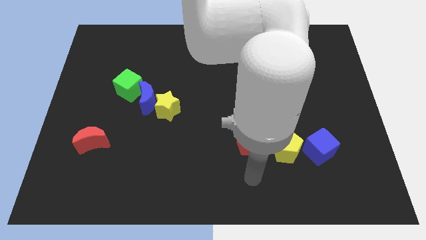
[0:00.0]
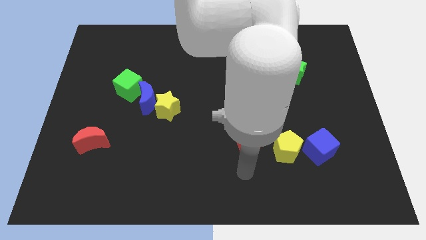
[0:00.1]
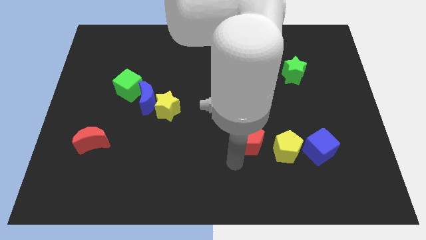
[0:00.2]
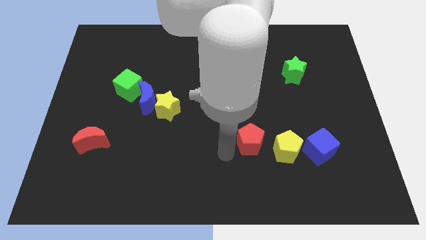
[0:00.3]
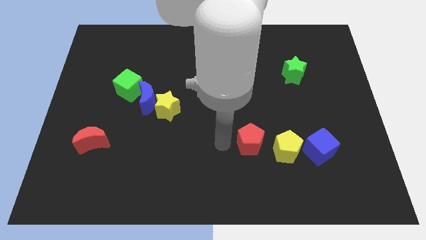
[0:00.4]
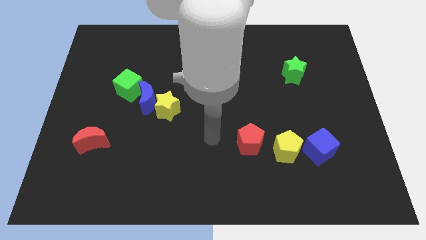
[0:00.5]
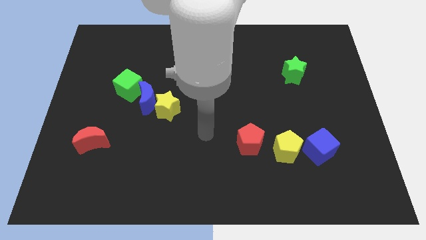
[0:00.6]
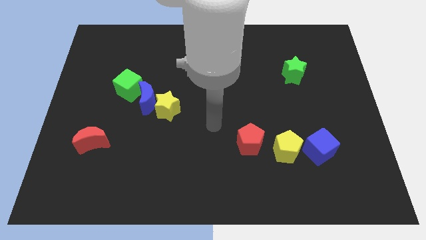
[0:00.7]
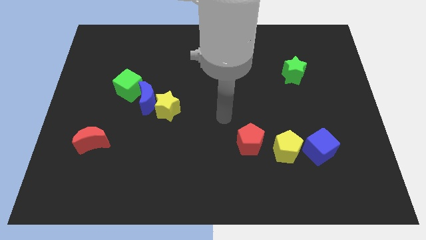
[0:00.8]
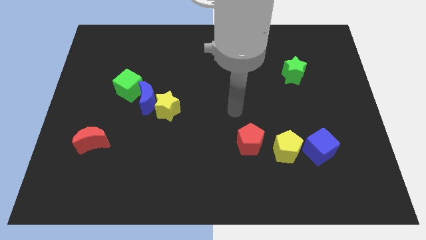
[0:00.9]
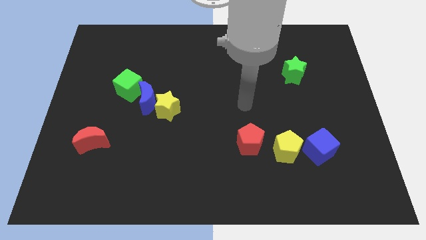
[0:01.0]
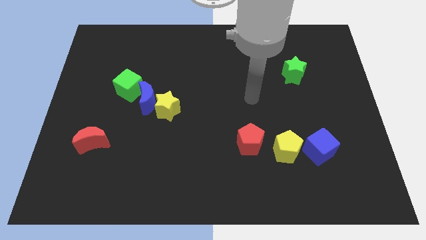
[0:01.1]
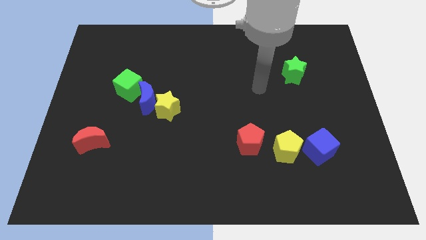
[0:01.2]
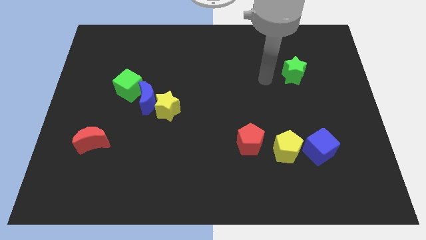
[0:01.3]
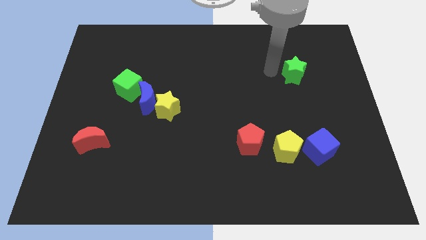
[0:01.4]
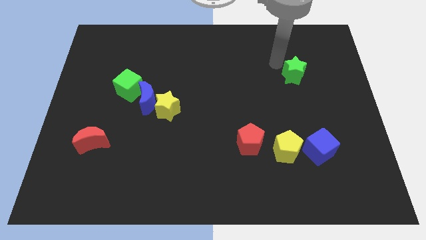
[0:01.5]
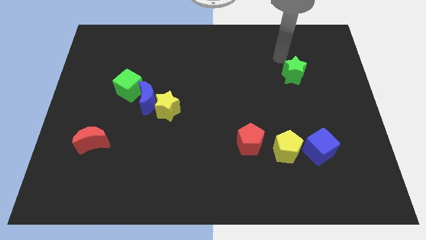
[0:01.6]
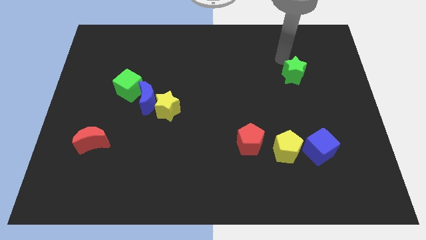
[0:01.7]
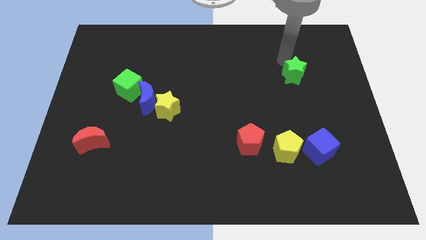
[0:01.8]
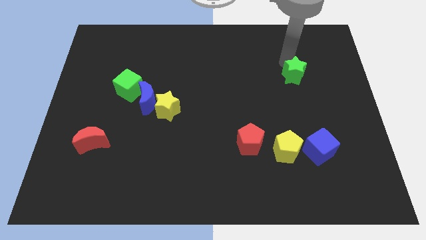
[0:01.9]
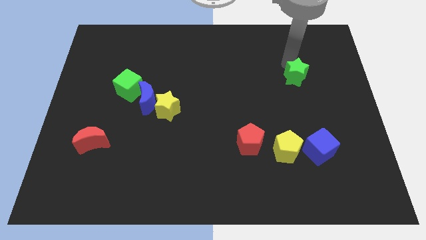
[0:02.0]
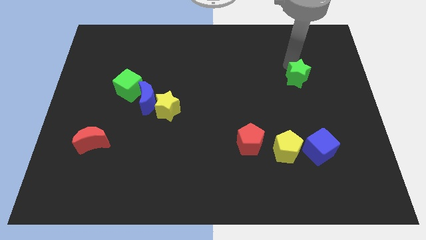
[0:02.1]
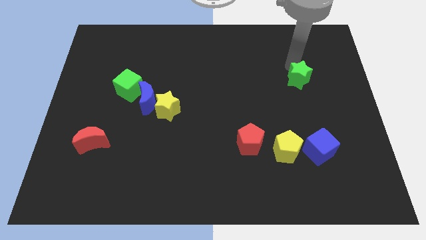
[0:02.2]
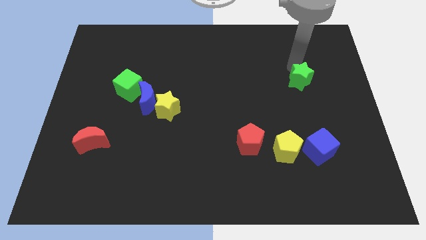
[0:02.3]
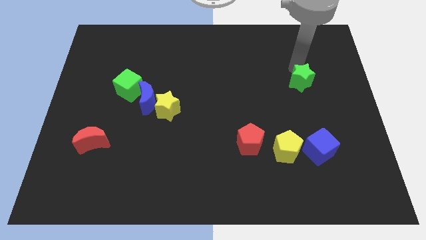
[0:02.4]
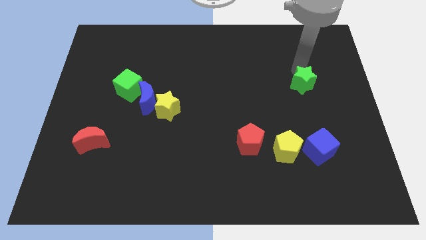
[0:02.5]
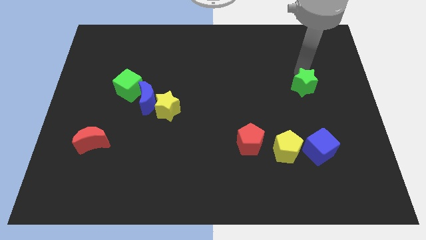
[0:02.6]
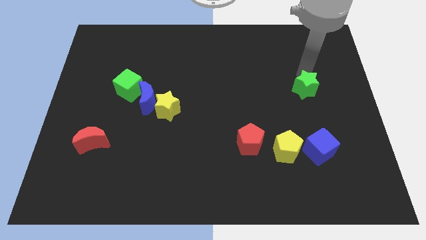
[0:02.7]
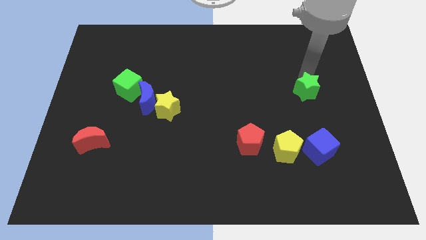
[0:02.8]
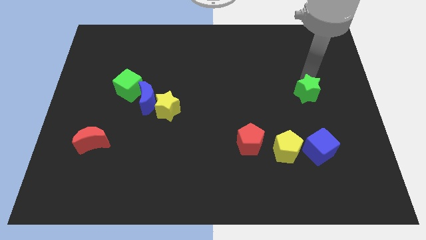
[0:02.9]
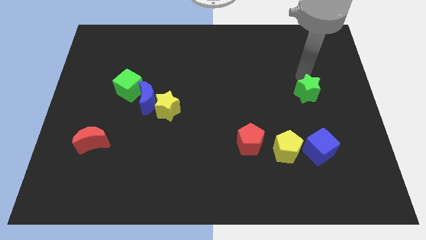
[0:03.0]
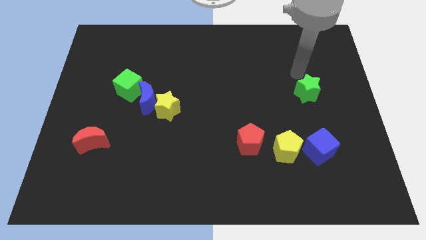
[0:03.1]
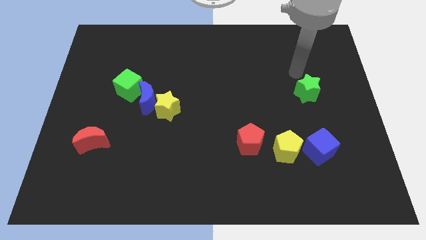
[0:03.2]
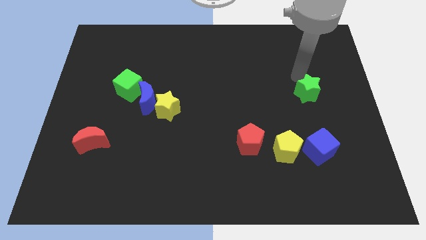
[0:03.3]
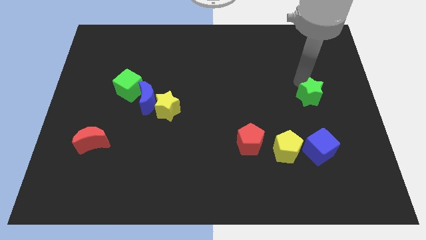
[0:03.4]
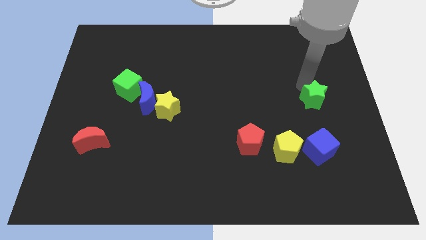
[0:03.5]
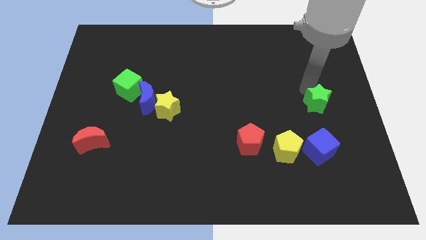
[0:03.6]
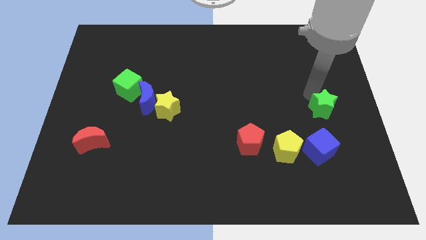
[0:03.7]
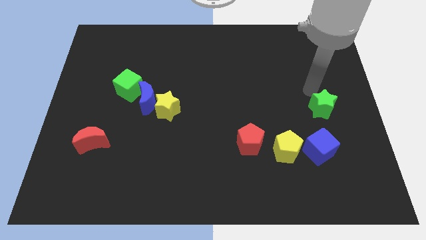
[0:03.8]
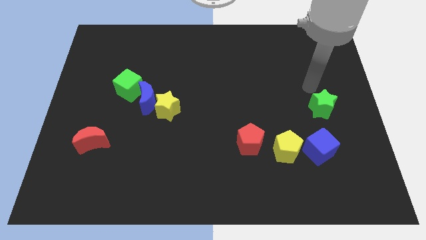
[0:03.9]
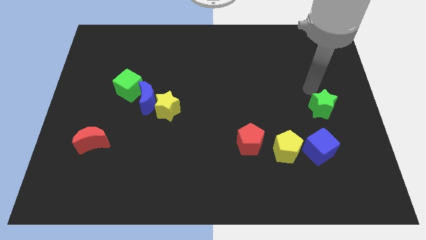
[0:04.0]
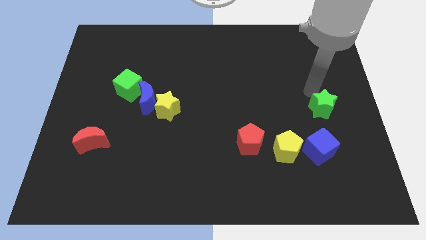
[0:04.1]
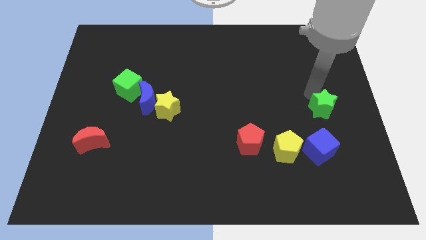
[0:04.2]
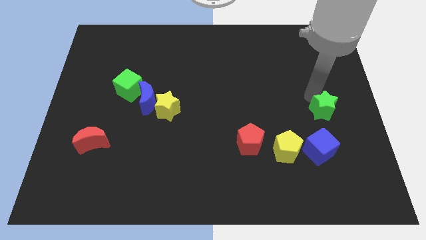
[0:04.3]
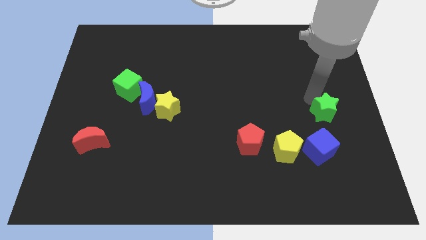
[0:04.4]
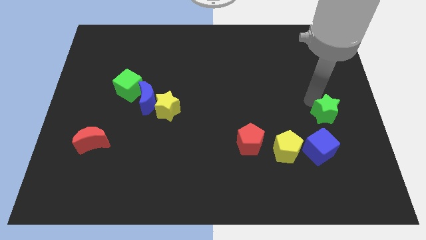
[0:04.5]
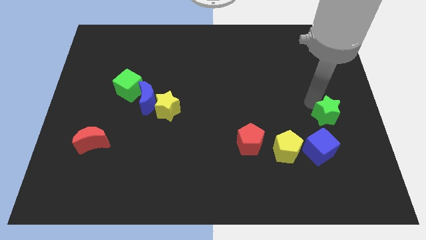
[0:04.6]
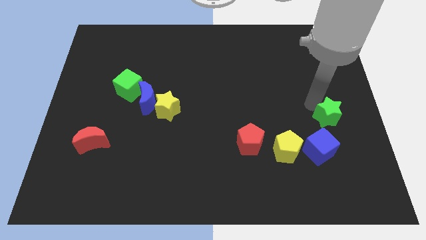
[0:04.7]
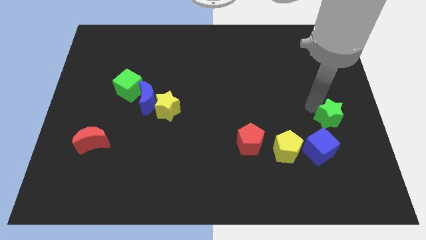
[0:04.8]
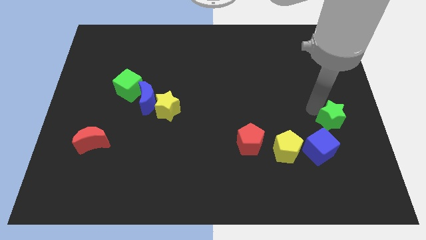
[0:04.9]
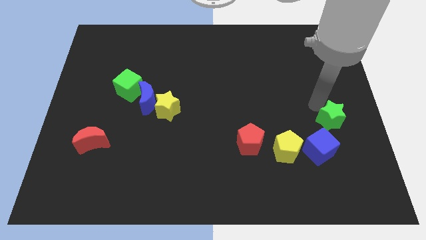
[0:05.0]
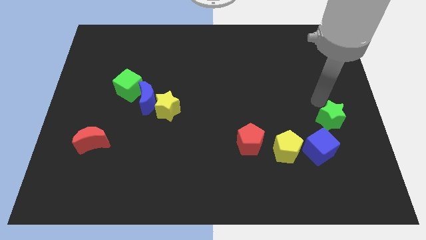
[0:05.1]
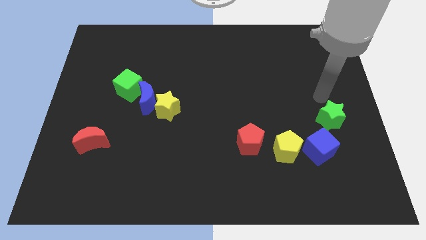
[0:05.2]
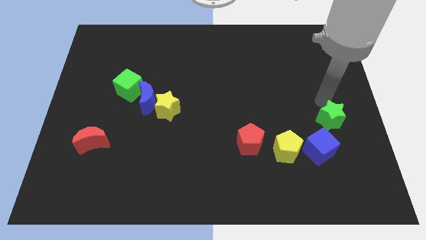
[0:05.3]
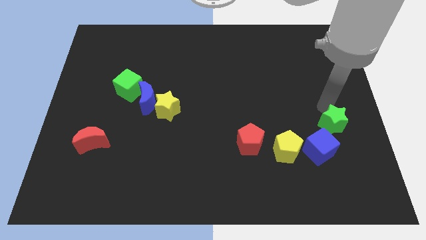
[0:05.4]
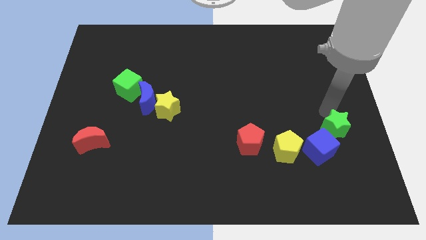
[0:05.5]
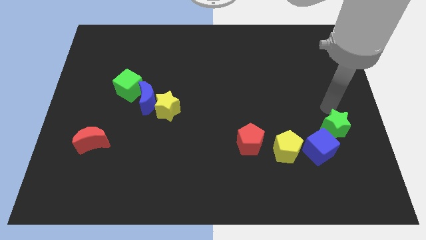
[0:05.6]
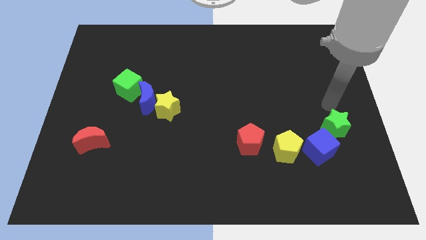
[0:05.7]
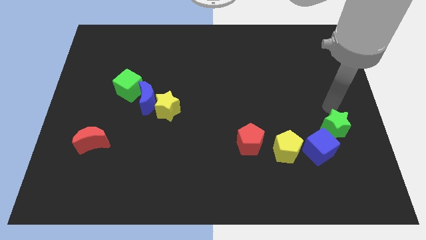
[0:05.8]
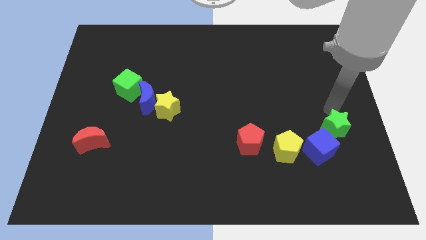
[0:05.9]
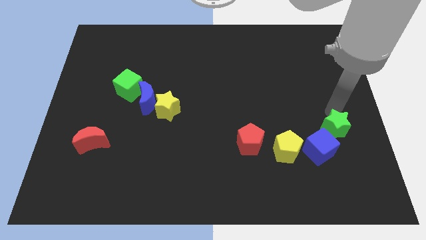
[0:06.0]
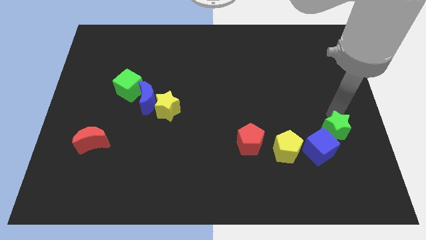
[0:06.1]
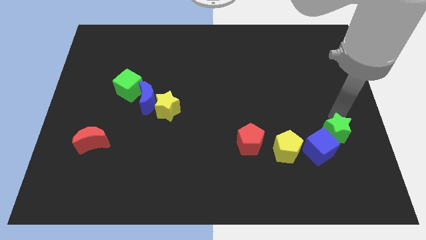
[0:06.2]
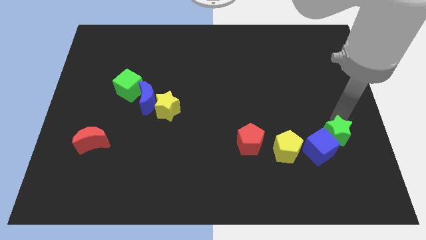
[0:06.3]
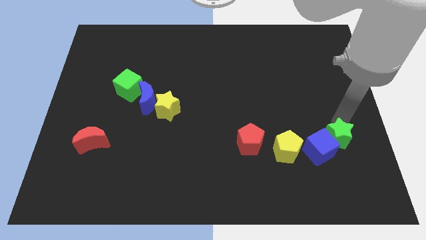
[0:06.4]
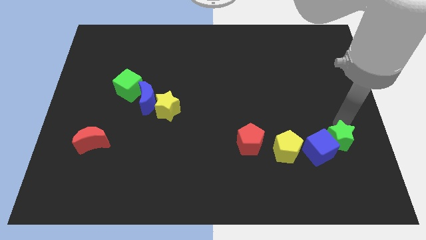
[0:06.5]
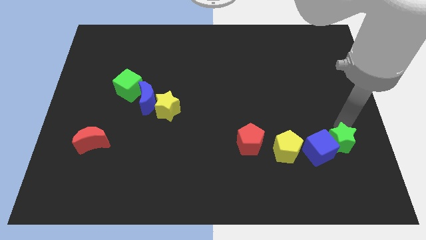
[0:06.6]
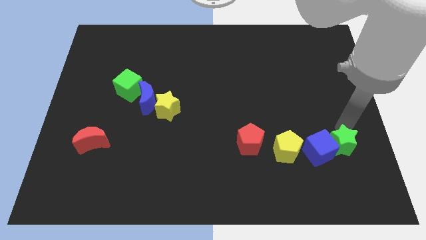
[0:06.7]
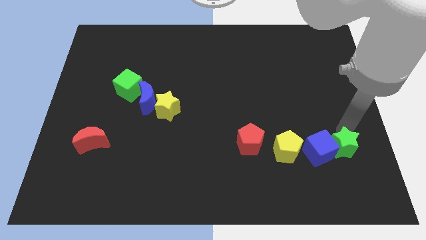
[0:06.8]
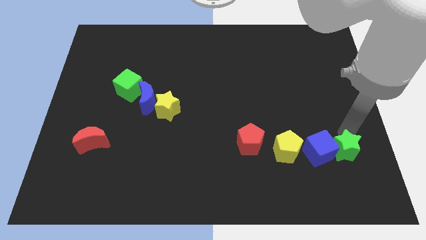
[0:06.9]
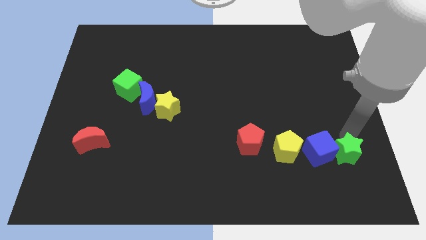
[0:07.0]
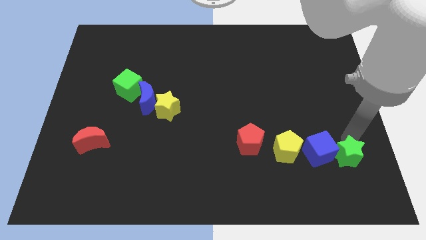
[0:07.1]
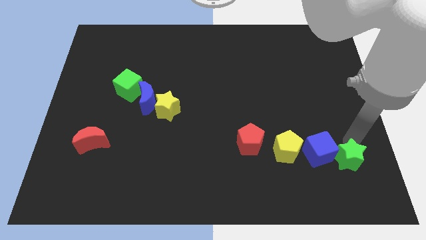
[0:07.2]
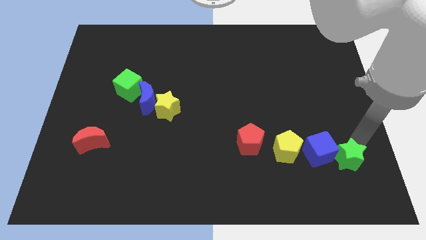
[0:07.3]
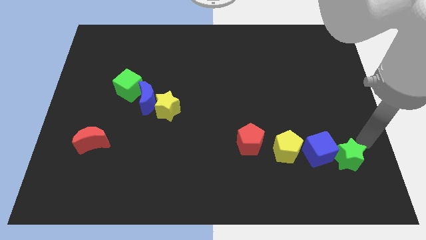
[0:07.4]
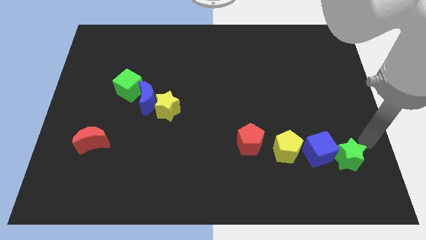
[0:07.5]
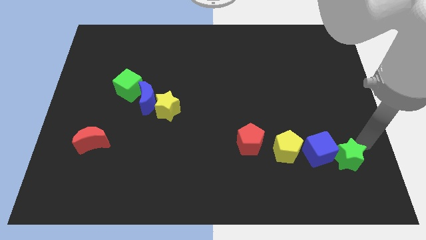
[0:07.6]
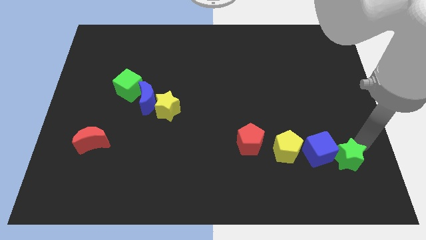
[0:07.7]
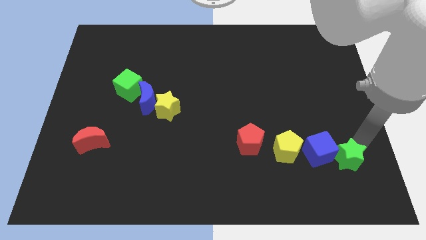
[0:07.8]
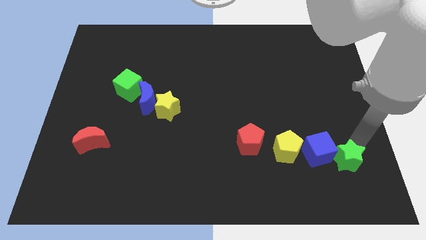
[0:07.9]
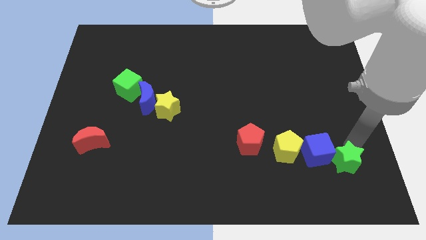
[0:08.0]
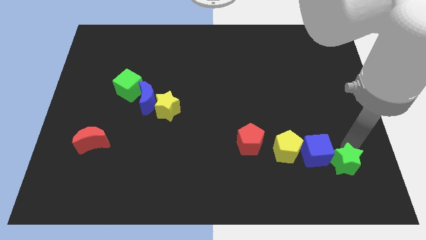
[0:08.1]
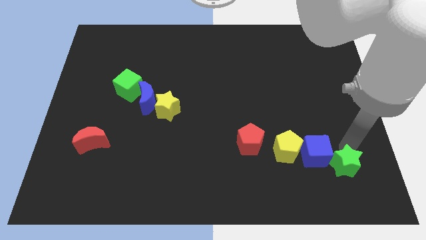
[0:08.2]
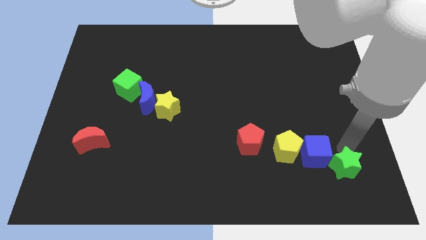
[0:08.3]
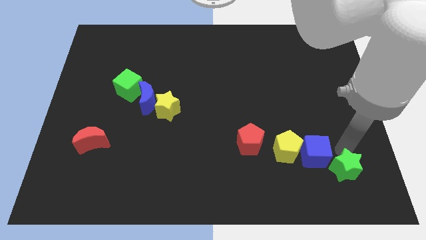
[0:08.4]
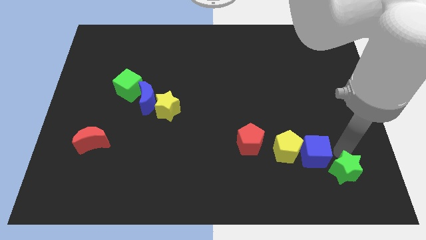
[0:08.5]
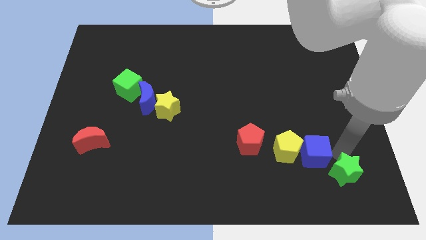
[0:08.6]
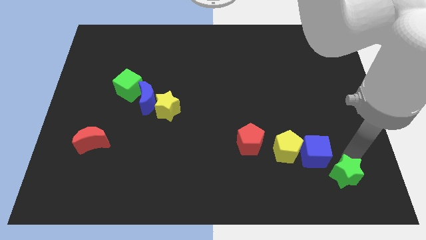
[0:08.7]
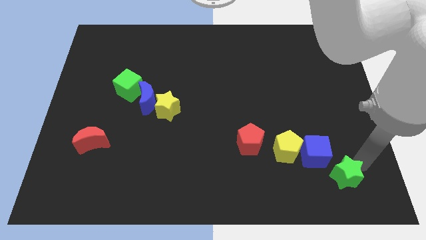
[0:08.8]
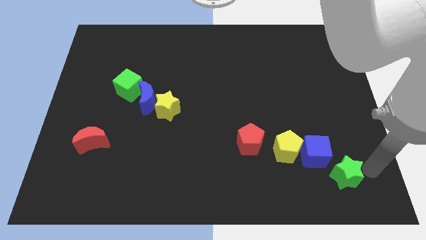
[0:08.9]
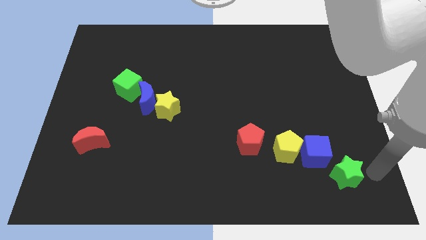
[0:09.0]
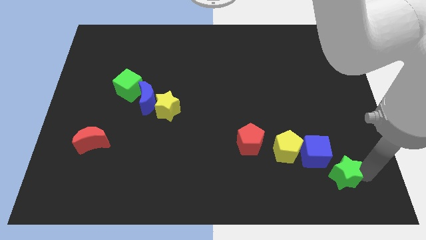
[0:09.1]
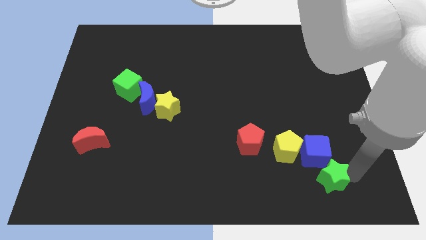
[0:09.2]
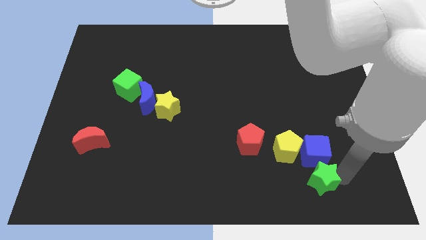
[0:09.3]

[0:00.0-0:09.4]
push the green star to the bottom left of the blue cube
